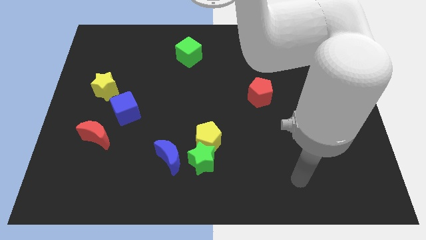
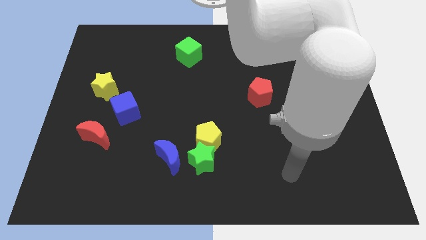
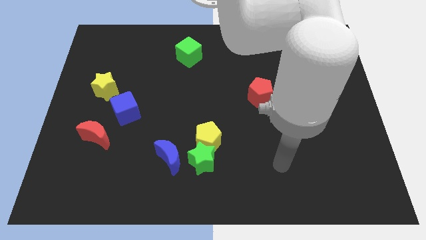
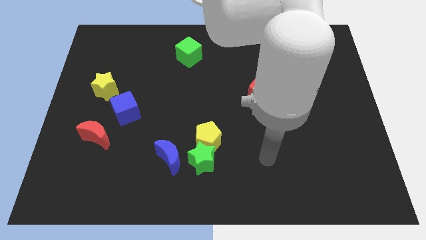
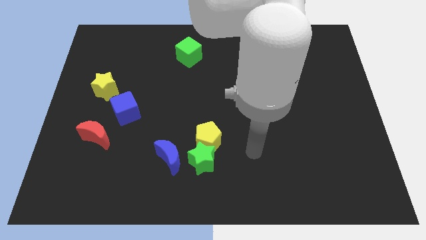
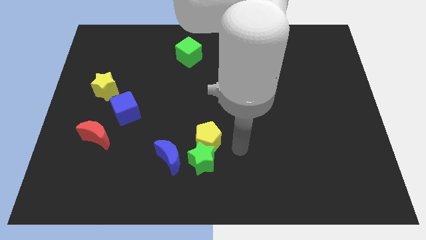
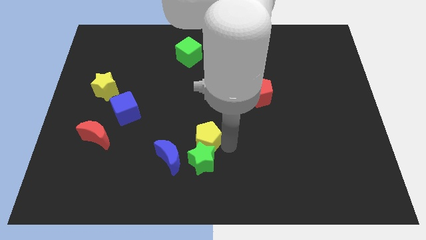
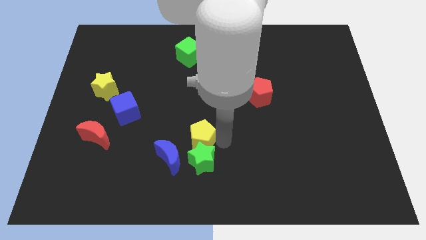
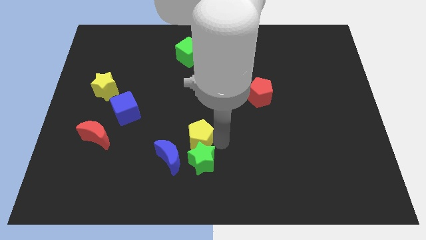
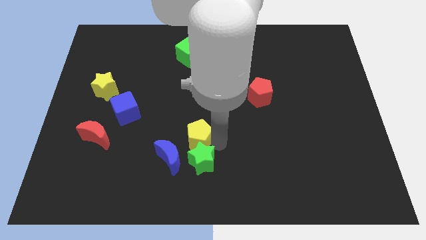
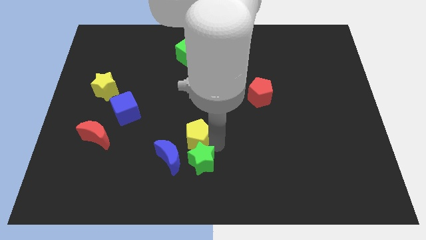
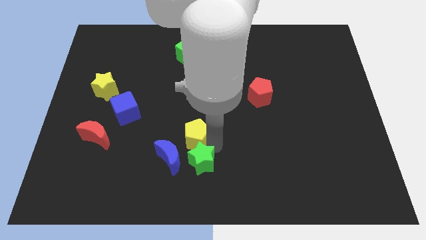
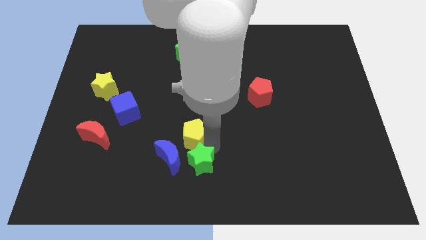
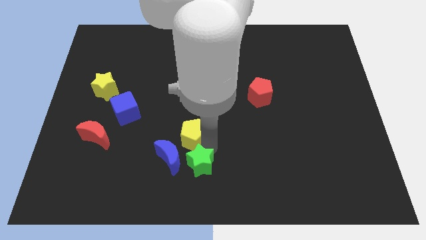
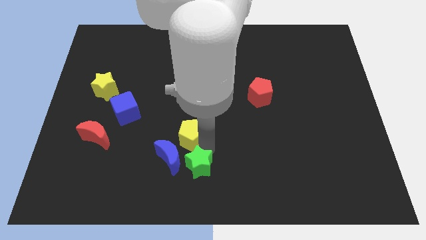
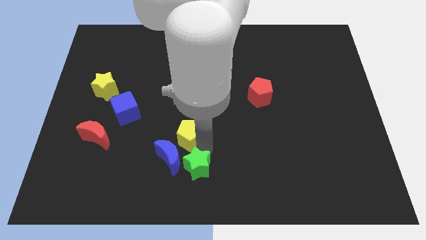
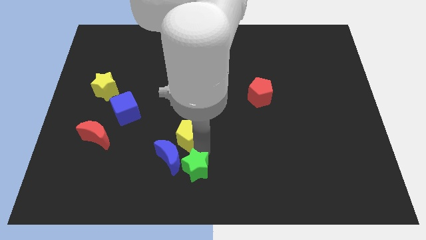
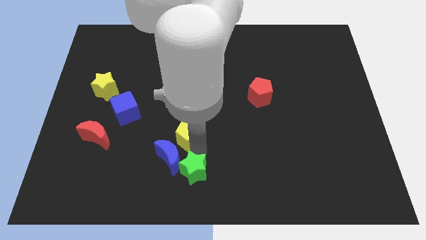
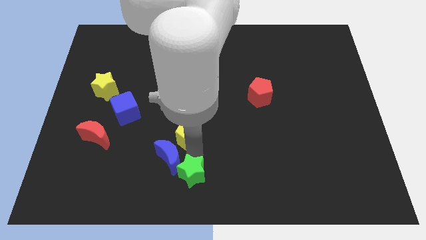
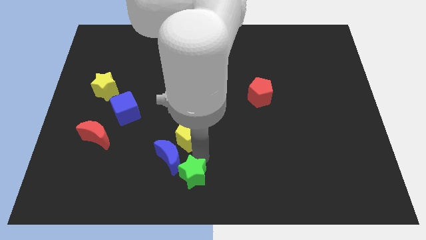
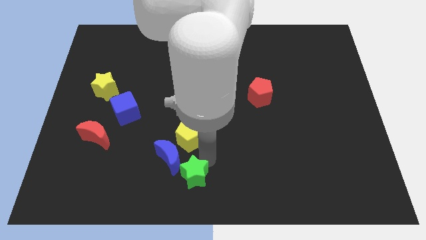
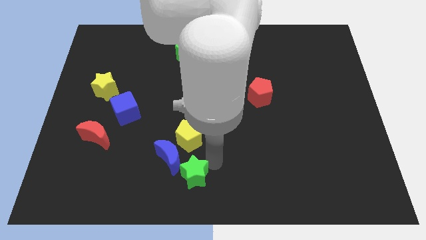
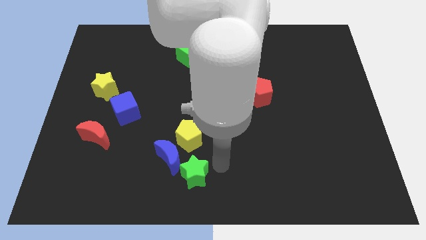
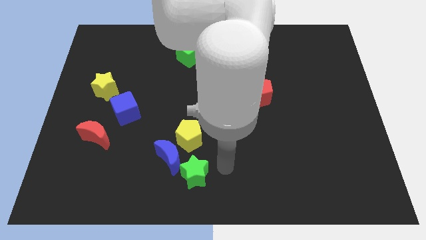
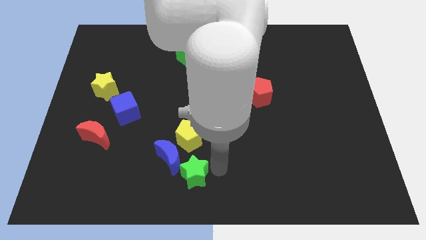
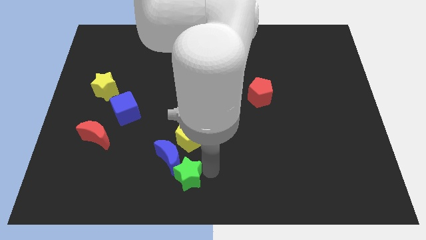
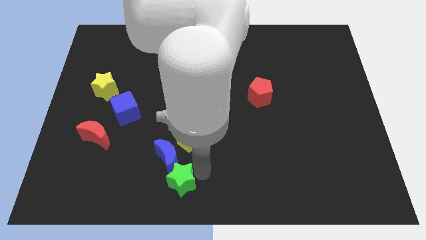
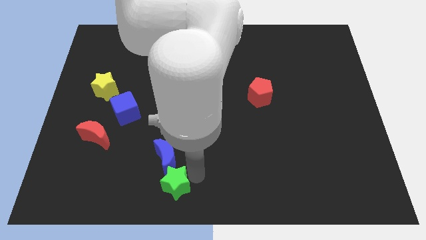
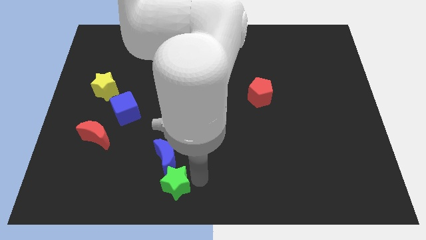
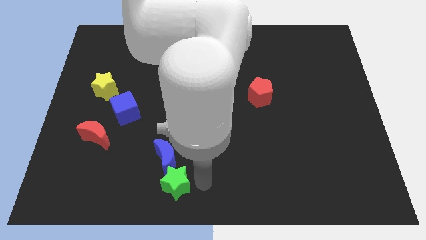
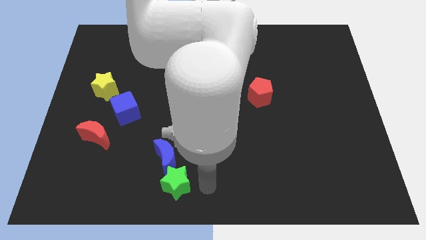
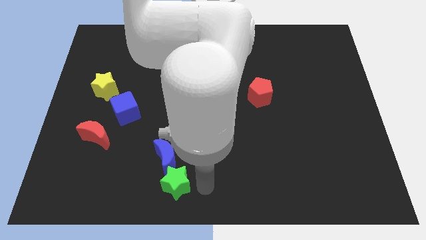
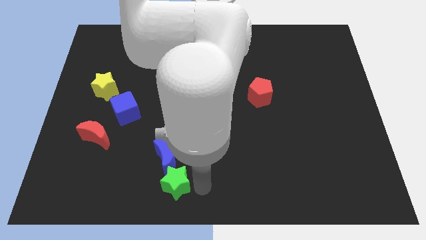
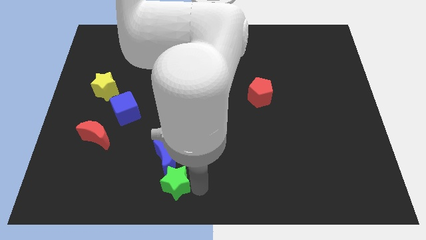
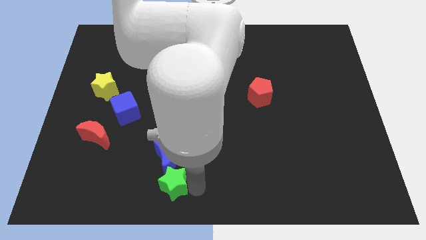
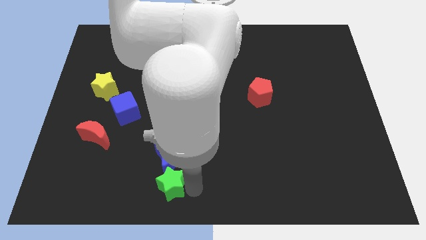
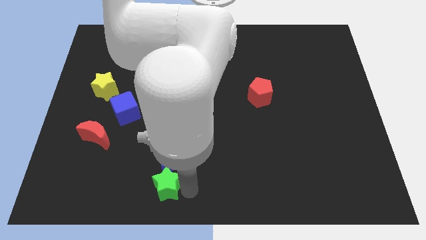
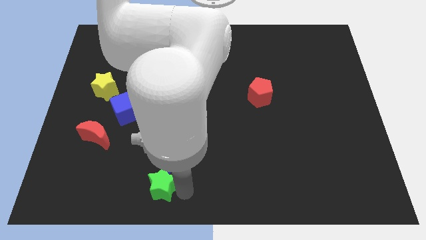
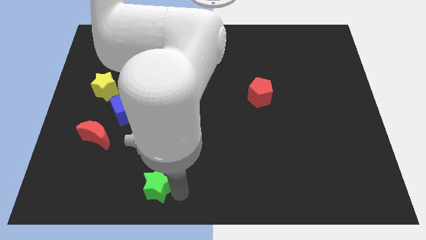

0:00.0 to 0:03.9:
move the green star a little bit to the left

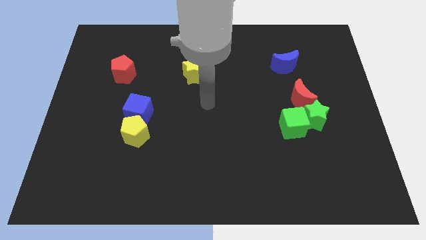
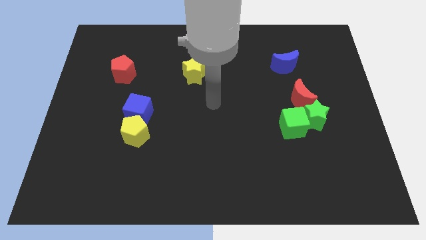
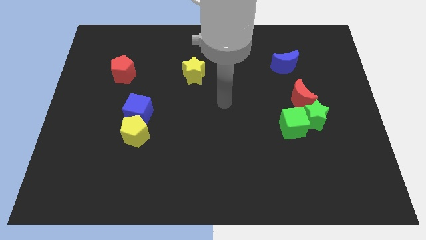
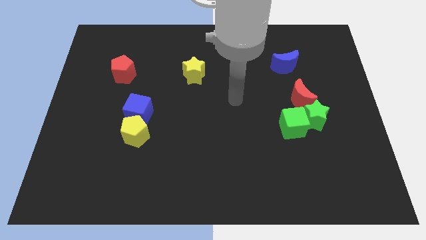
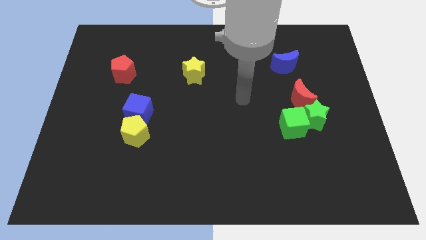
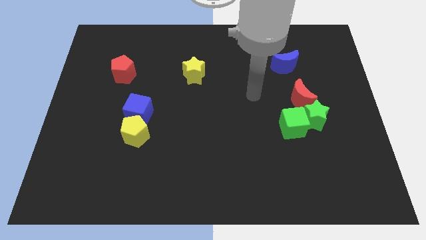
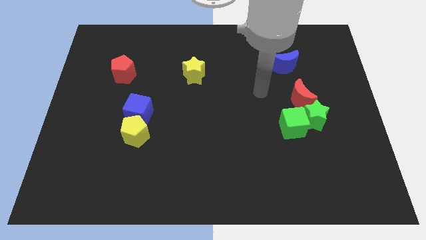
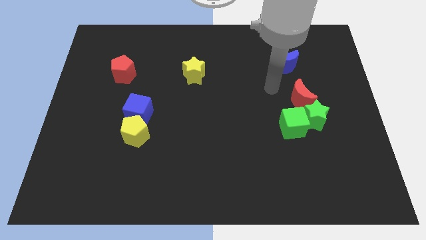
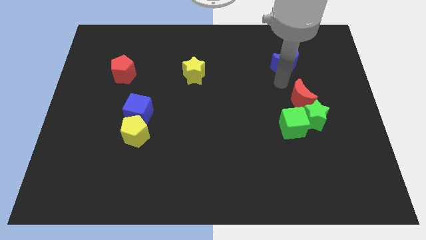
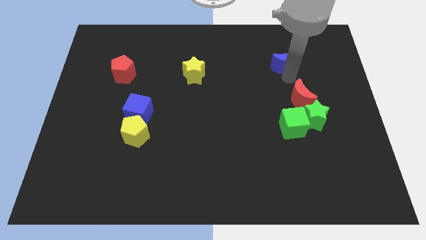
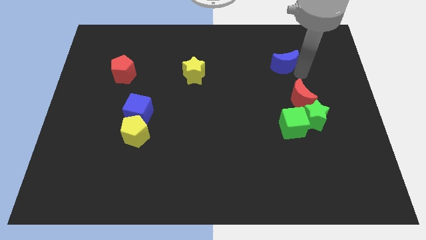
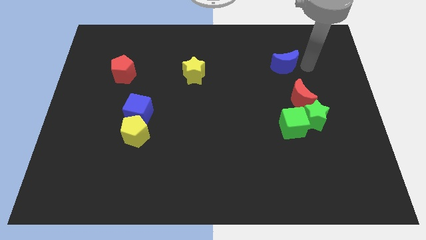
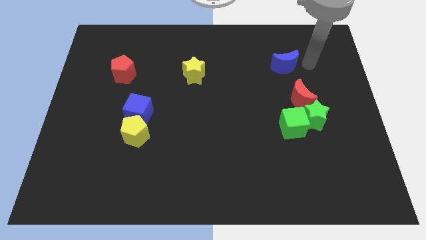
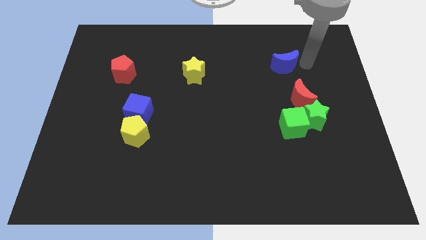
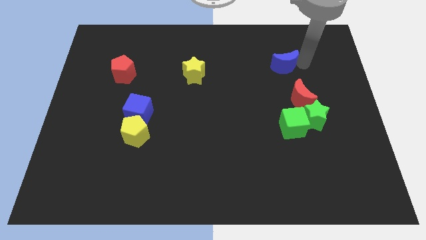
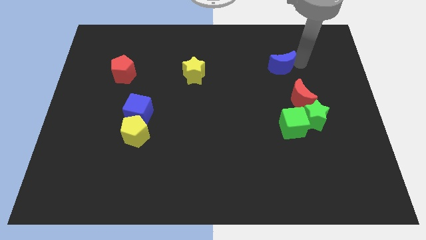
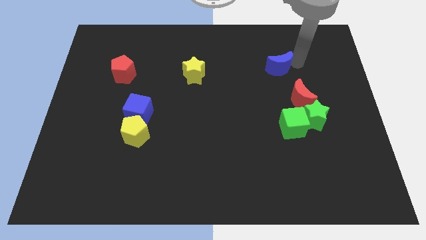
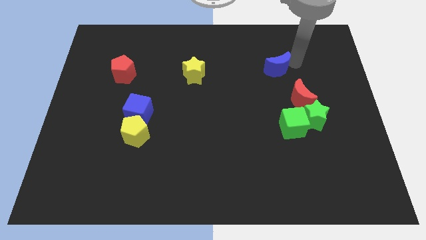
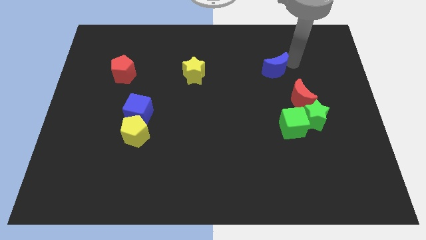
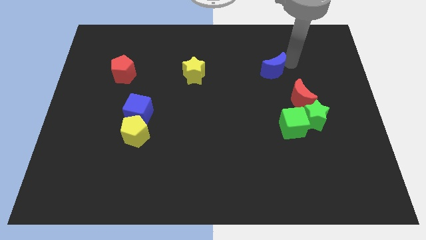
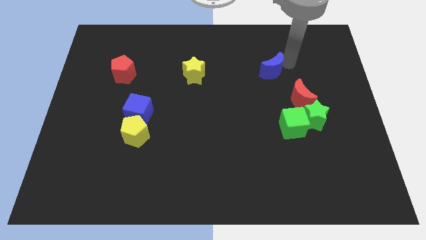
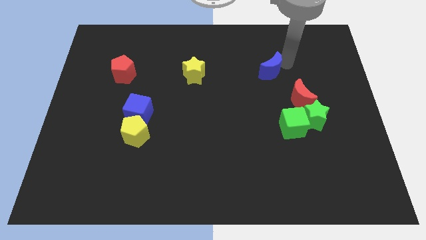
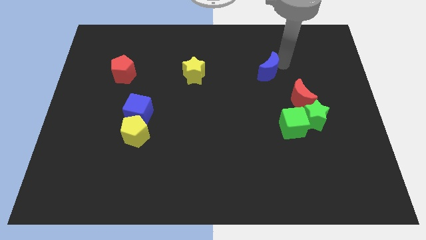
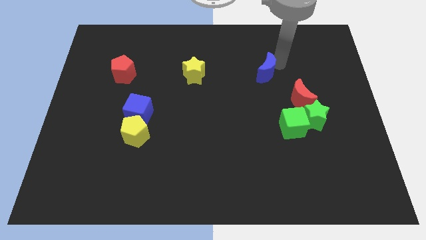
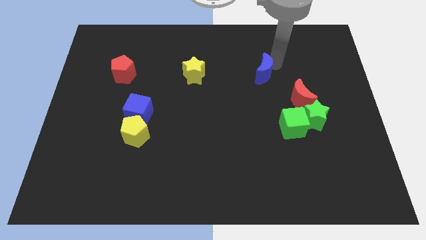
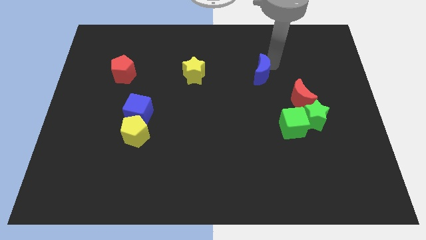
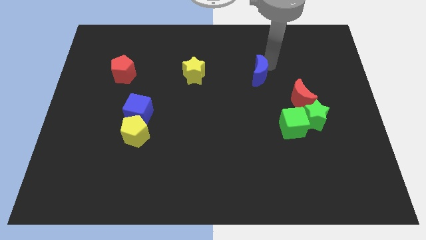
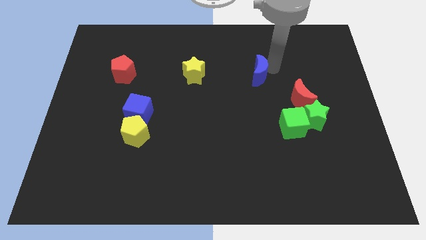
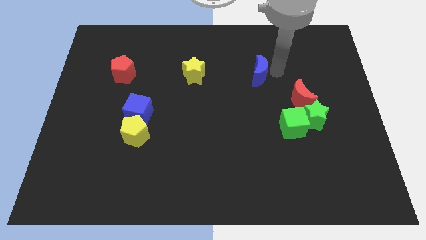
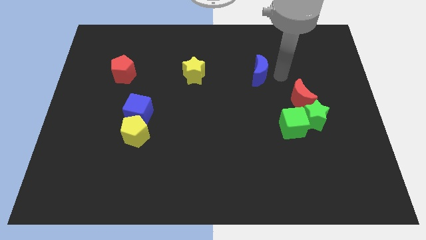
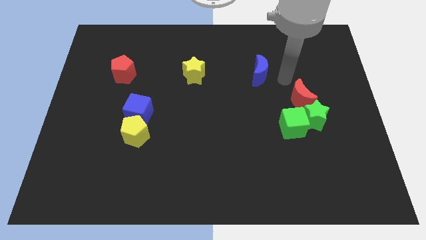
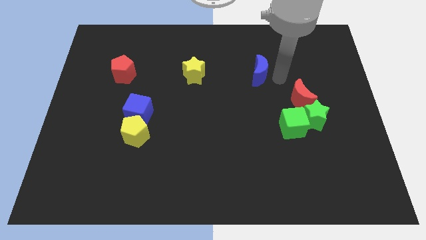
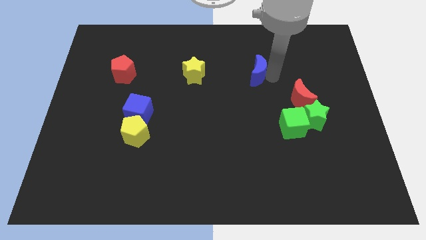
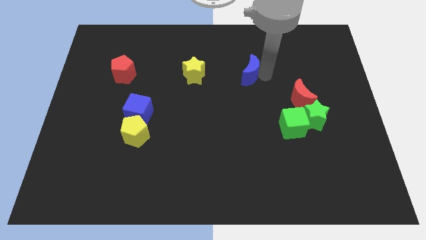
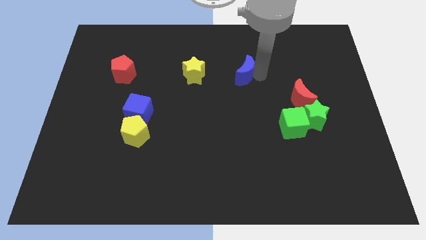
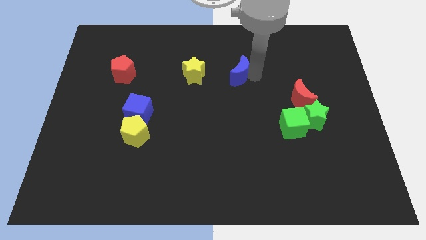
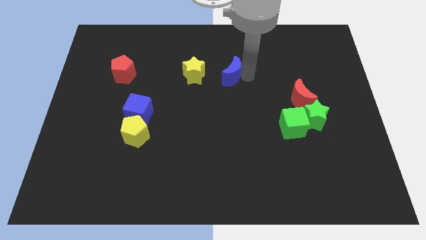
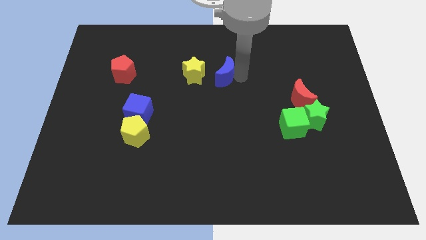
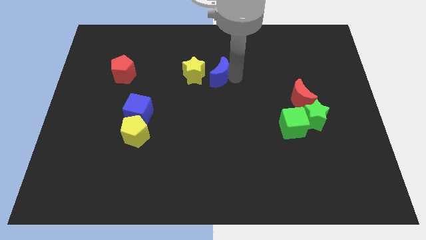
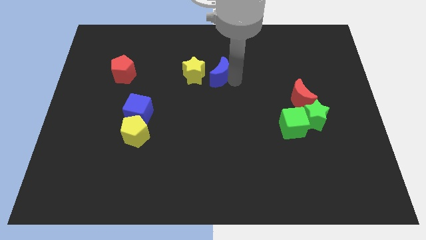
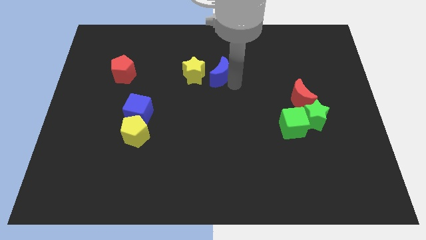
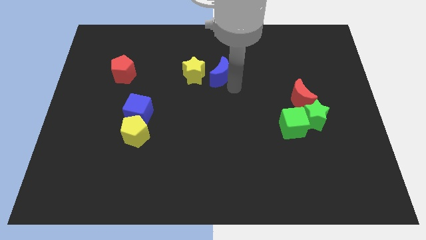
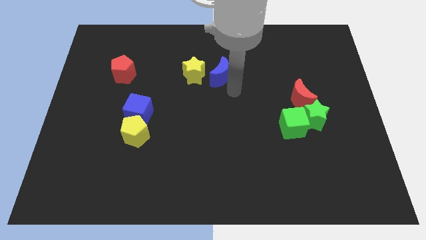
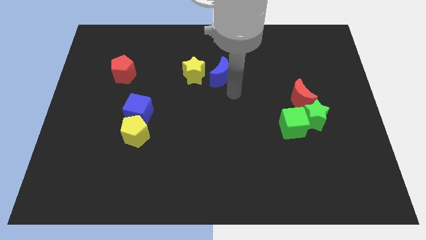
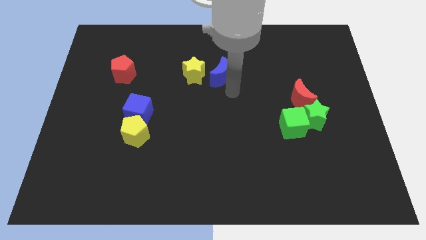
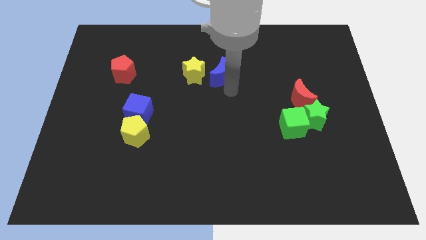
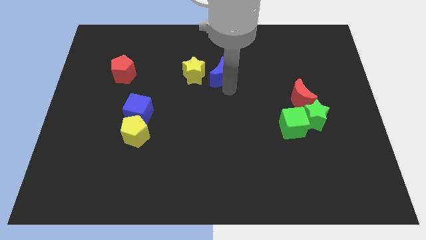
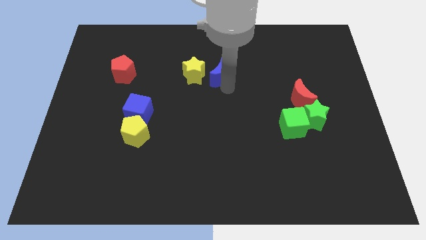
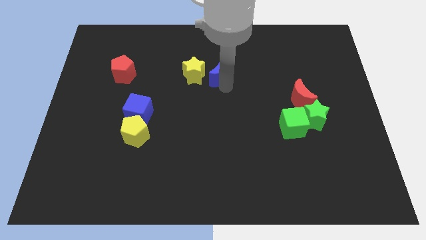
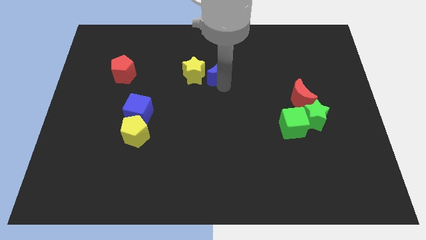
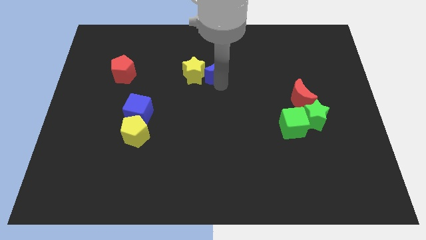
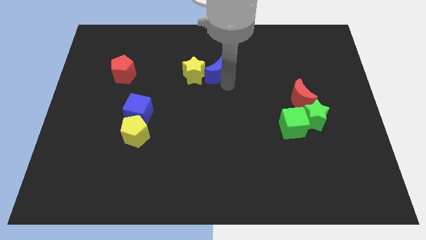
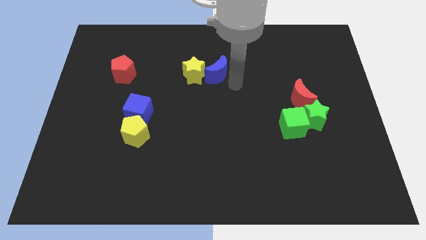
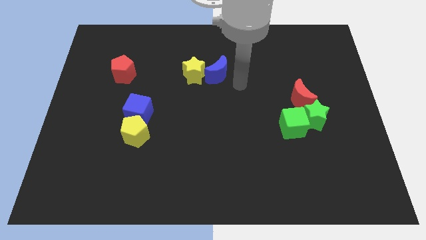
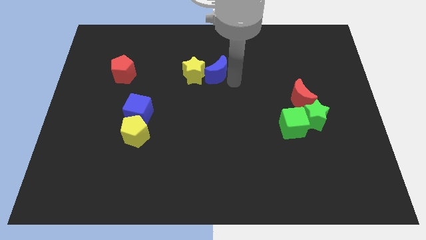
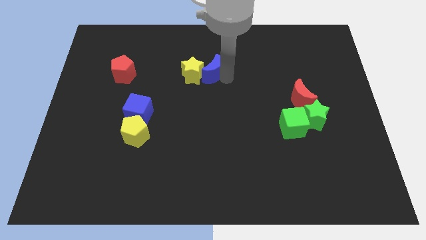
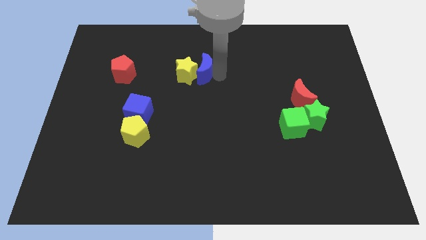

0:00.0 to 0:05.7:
move the blue moon to the left
